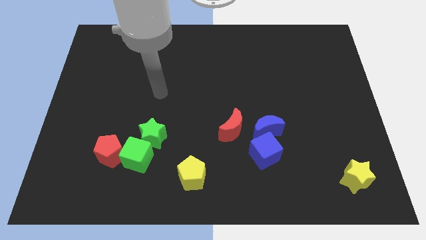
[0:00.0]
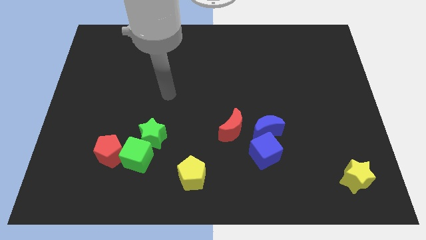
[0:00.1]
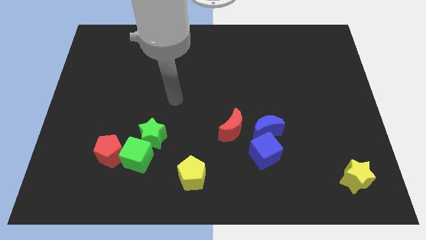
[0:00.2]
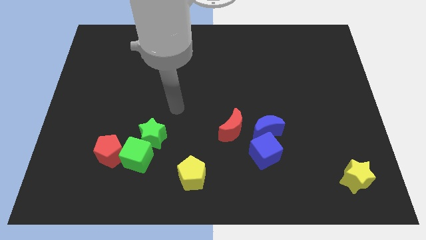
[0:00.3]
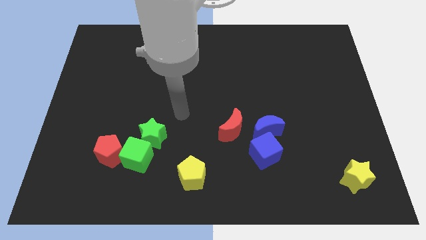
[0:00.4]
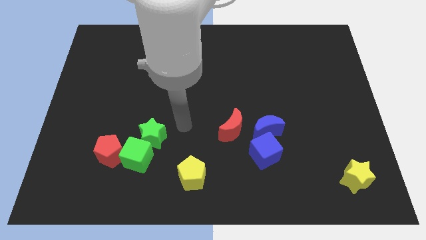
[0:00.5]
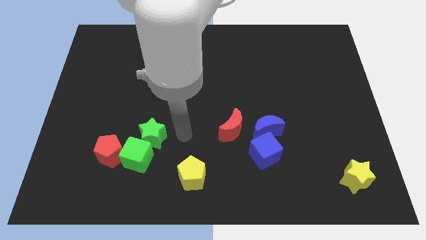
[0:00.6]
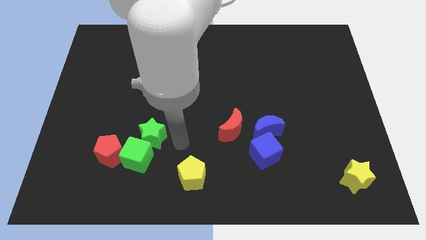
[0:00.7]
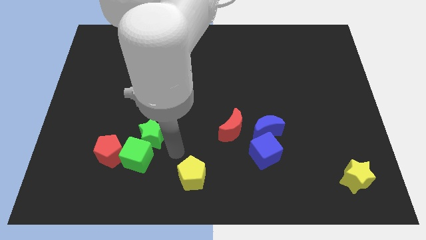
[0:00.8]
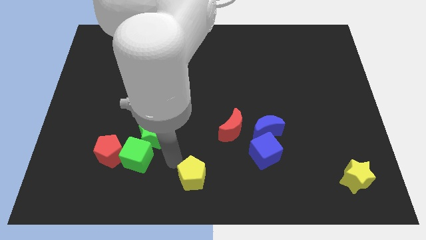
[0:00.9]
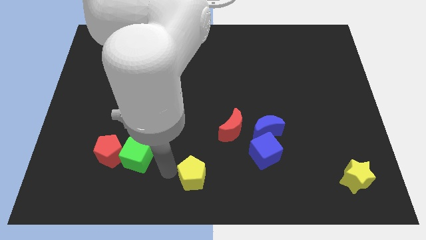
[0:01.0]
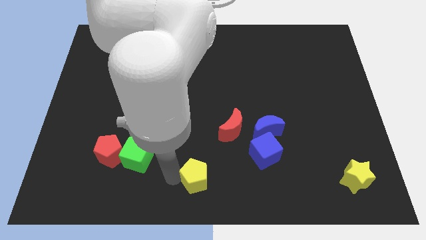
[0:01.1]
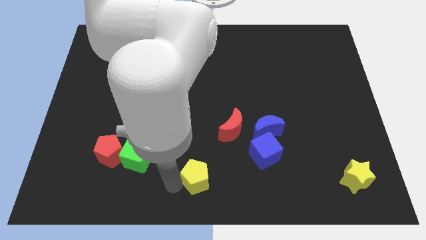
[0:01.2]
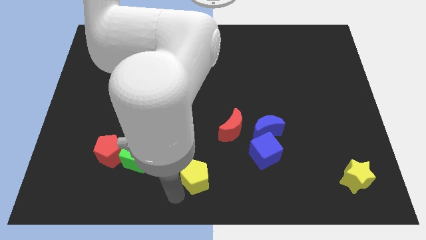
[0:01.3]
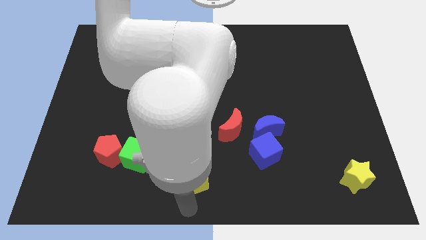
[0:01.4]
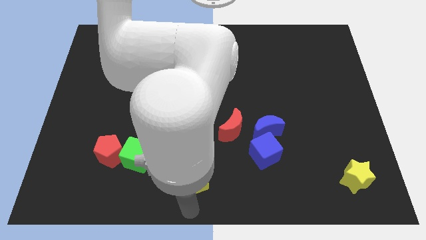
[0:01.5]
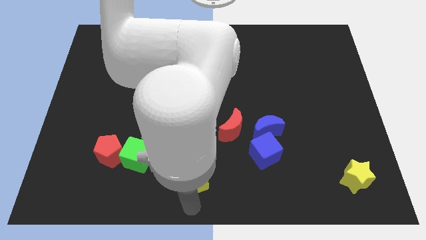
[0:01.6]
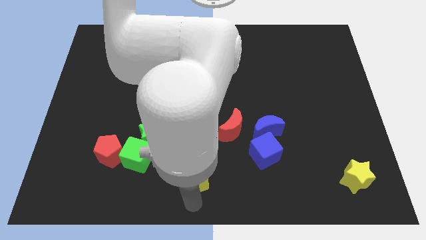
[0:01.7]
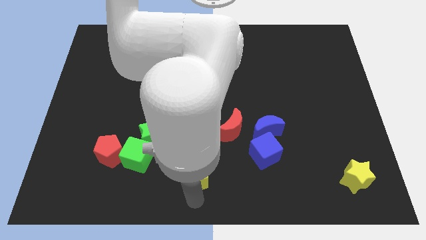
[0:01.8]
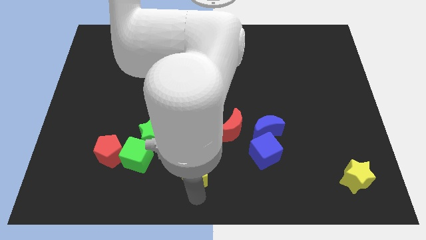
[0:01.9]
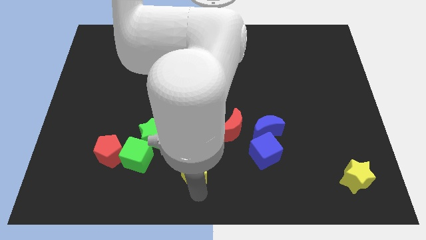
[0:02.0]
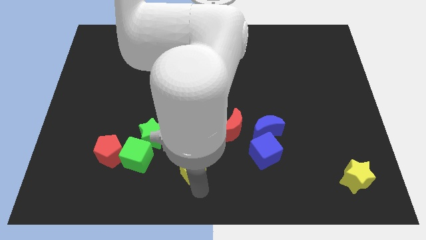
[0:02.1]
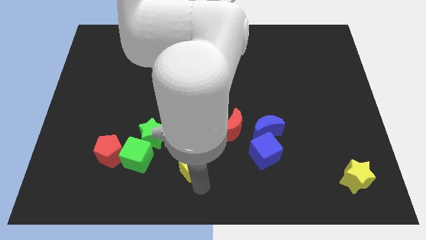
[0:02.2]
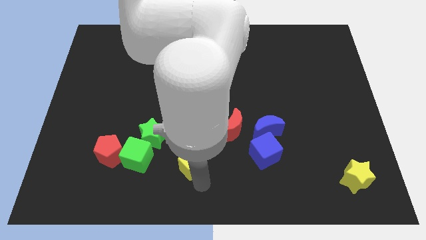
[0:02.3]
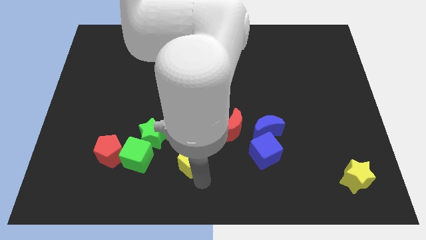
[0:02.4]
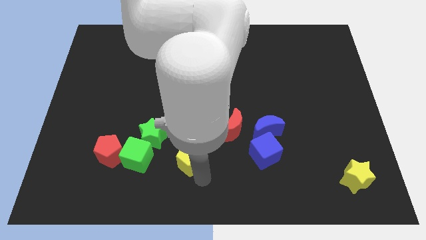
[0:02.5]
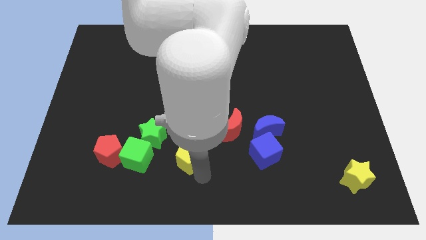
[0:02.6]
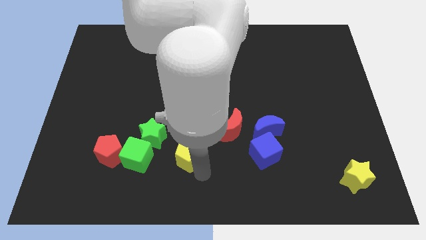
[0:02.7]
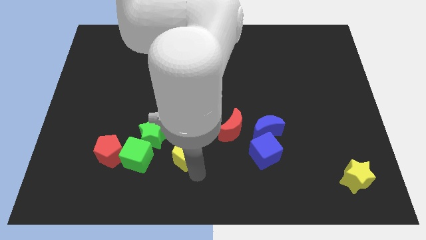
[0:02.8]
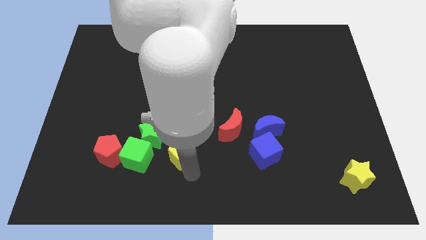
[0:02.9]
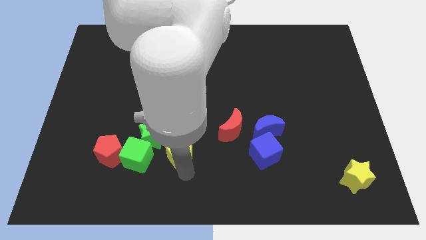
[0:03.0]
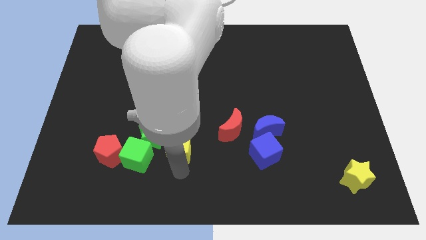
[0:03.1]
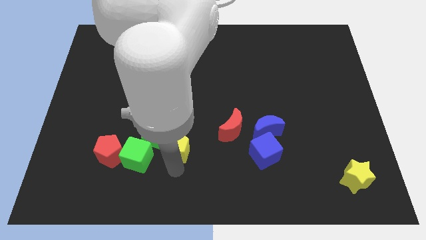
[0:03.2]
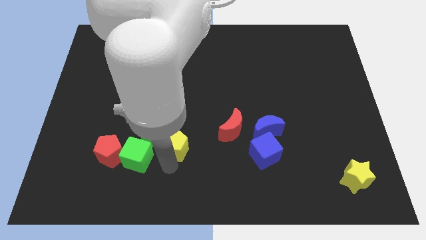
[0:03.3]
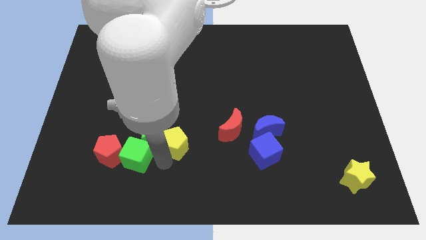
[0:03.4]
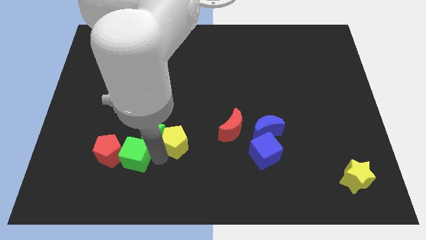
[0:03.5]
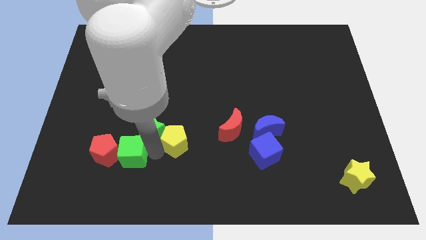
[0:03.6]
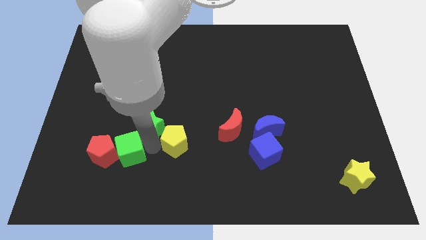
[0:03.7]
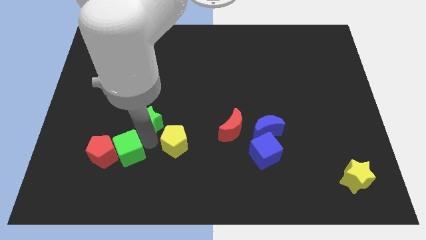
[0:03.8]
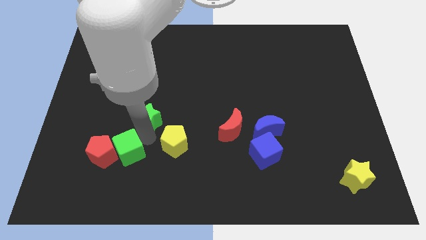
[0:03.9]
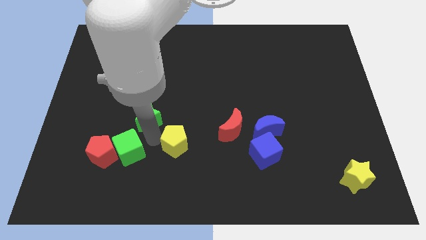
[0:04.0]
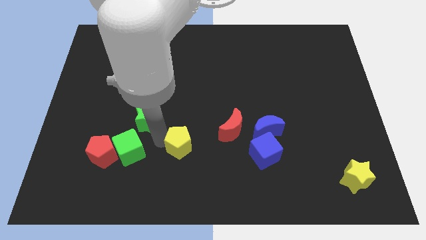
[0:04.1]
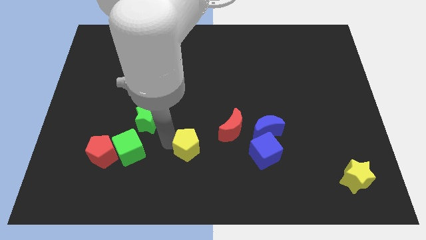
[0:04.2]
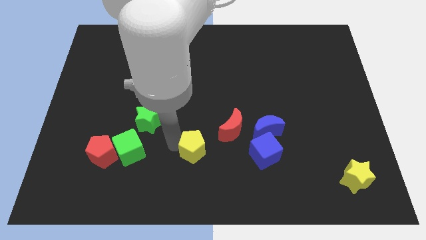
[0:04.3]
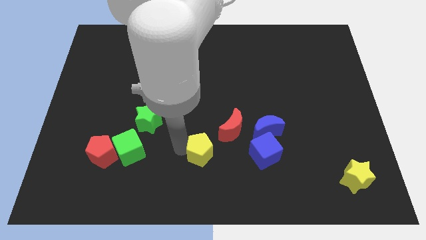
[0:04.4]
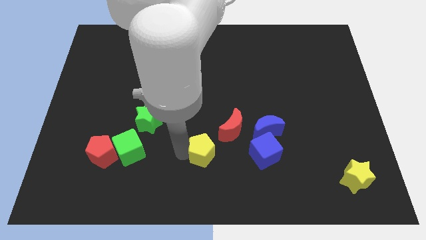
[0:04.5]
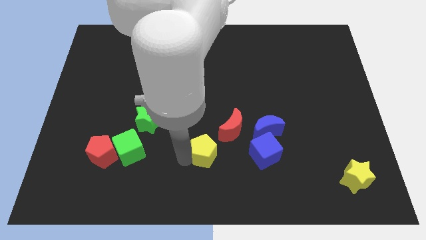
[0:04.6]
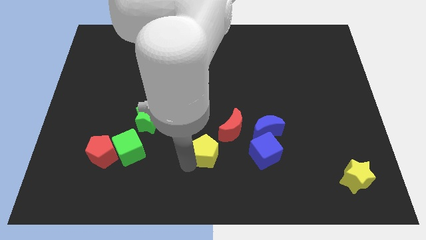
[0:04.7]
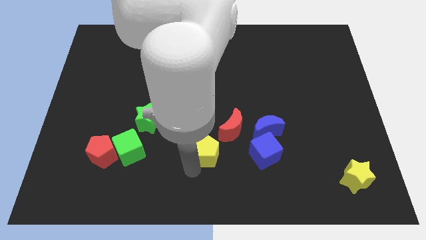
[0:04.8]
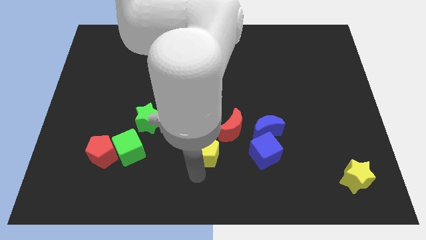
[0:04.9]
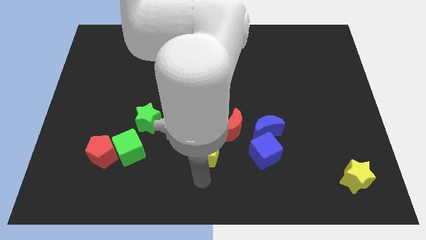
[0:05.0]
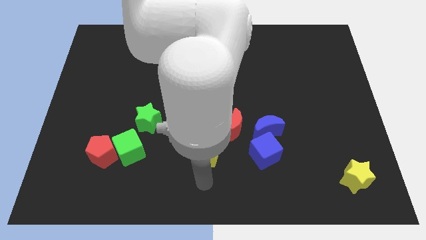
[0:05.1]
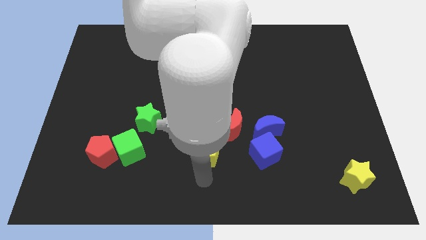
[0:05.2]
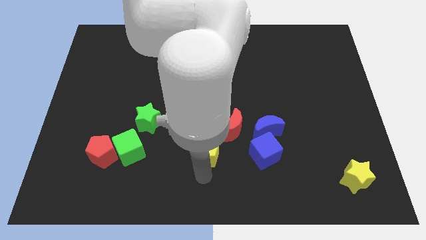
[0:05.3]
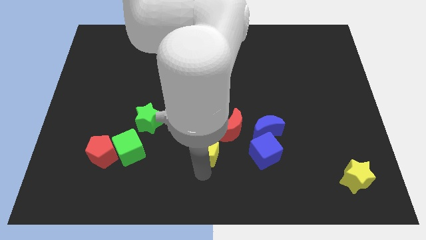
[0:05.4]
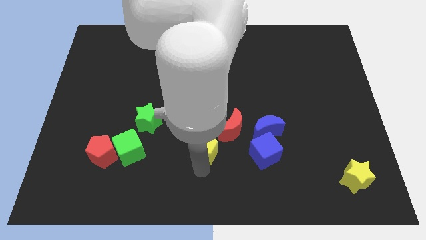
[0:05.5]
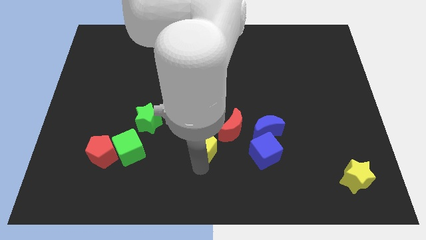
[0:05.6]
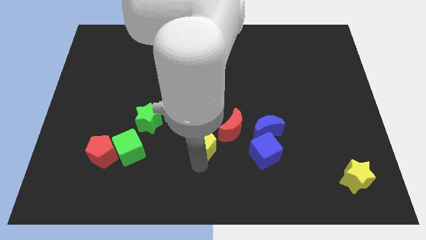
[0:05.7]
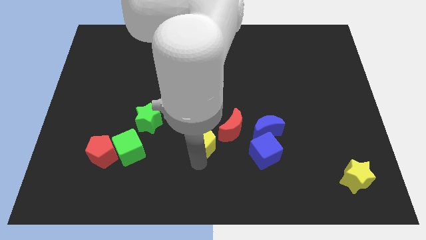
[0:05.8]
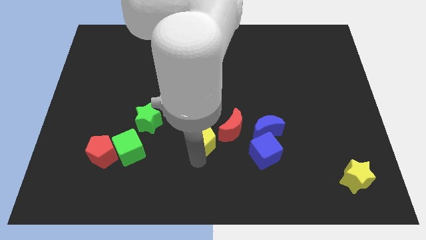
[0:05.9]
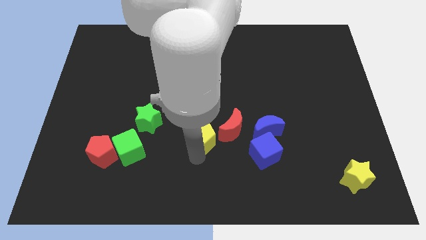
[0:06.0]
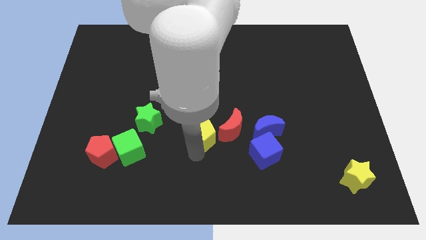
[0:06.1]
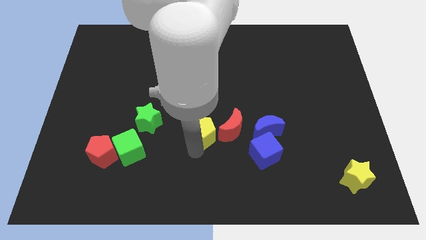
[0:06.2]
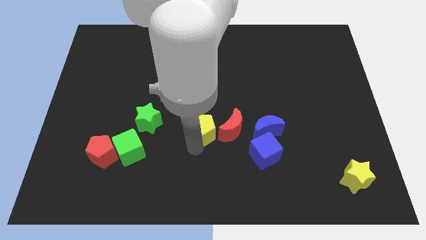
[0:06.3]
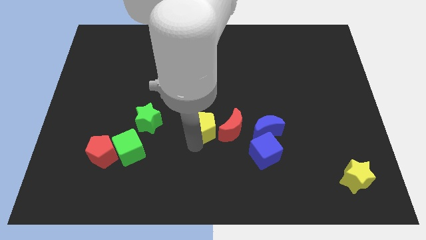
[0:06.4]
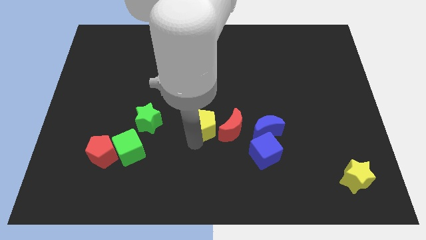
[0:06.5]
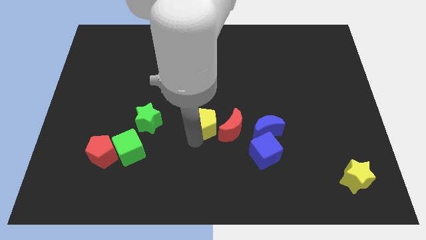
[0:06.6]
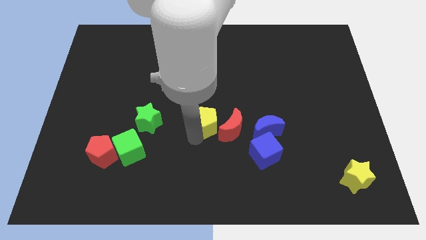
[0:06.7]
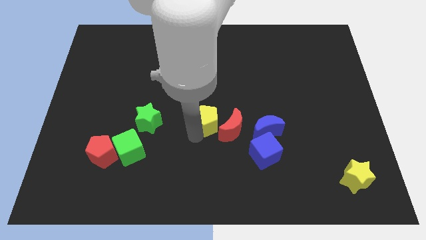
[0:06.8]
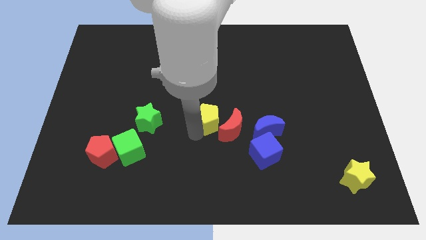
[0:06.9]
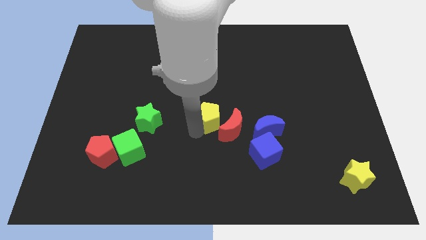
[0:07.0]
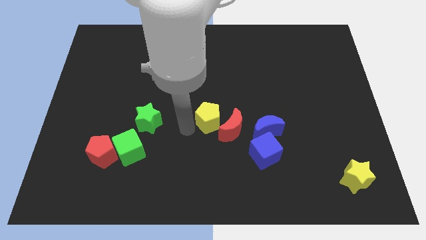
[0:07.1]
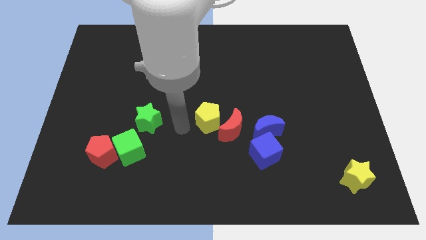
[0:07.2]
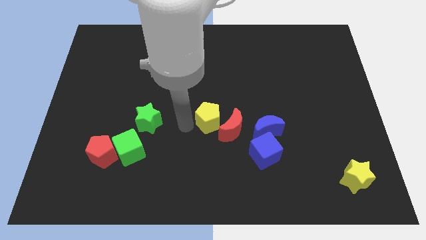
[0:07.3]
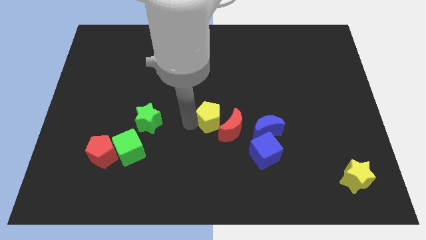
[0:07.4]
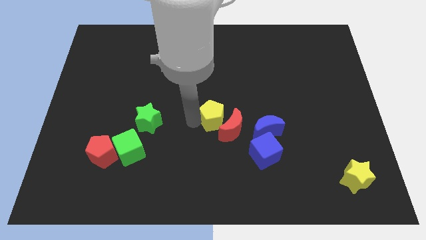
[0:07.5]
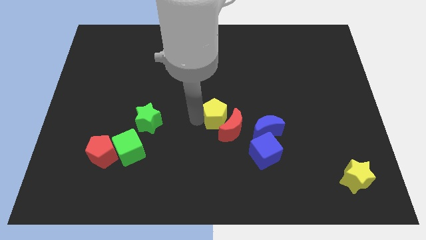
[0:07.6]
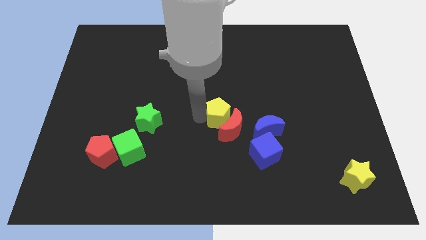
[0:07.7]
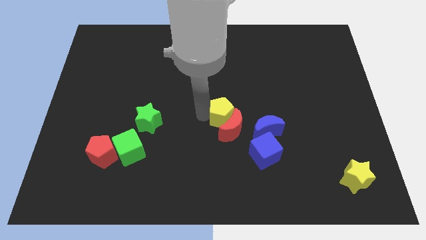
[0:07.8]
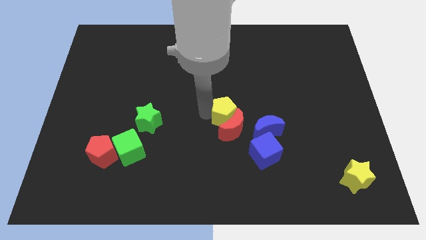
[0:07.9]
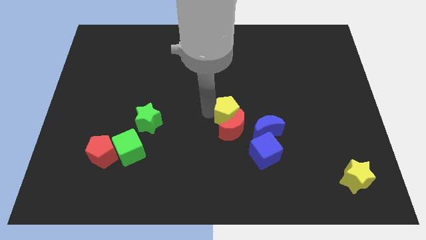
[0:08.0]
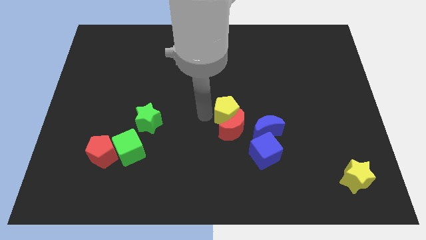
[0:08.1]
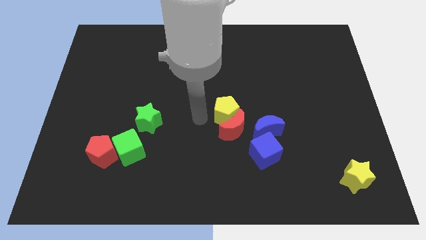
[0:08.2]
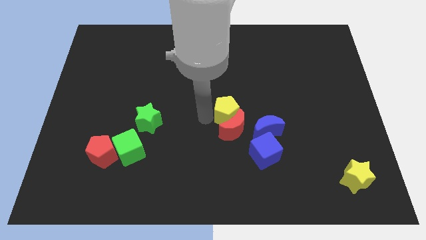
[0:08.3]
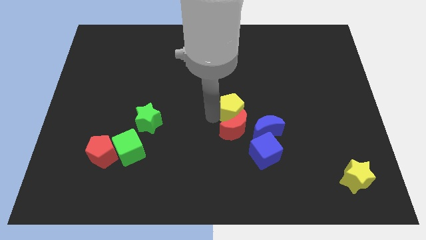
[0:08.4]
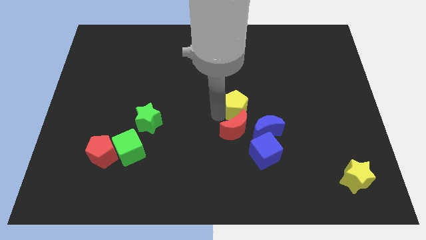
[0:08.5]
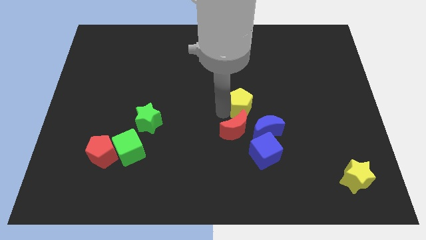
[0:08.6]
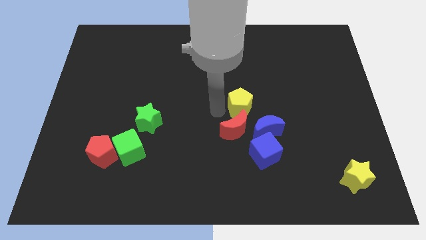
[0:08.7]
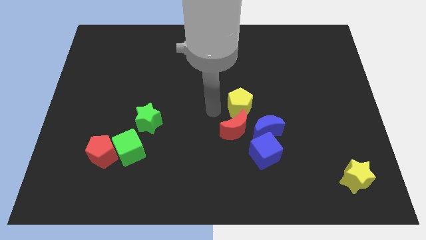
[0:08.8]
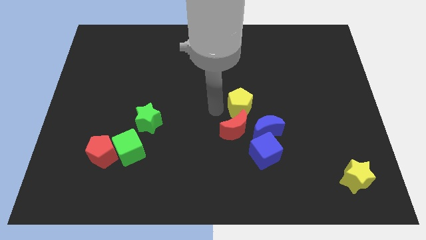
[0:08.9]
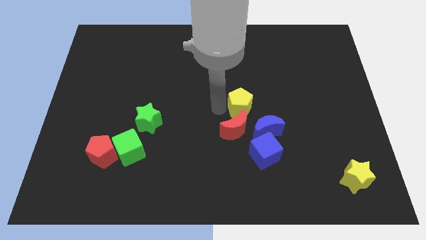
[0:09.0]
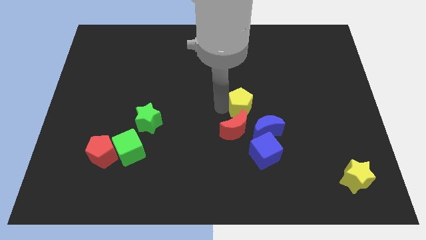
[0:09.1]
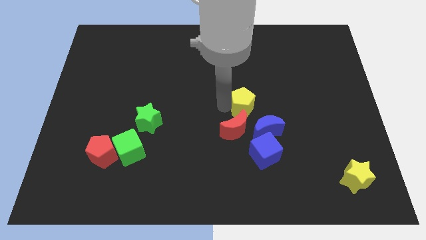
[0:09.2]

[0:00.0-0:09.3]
push the yellow pentagon up and then to the right
